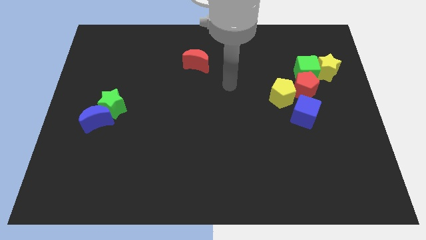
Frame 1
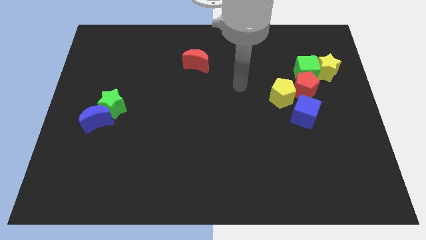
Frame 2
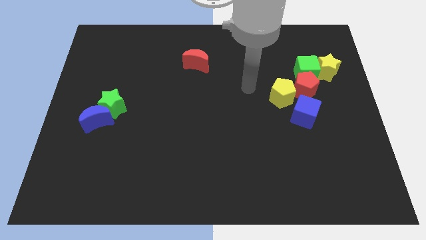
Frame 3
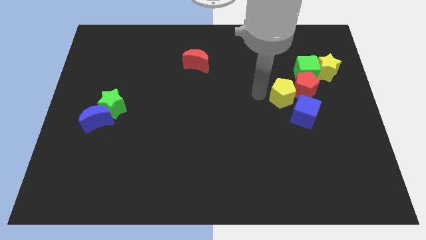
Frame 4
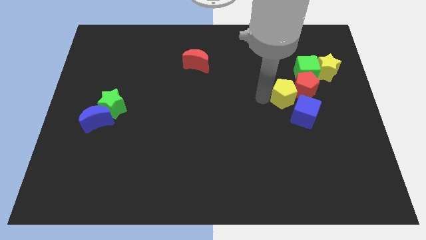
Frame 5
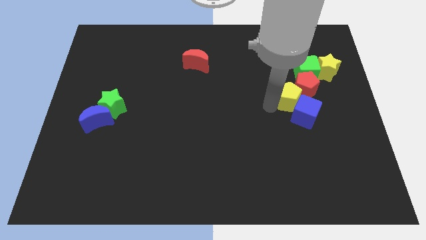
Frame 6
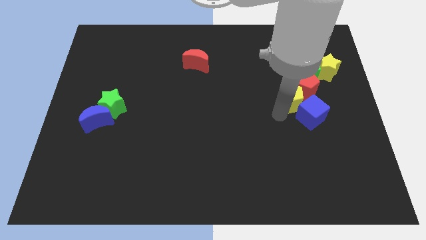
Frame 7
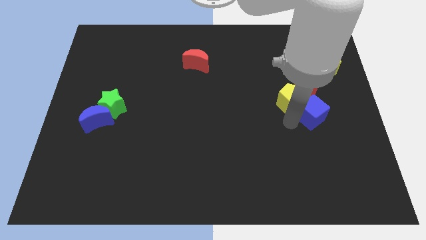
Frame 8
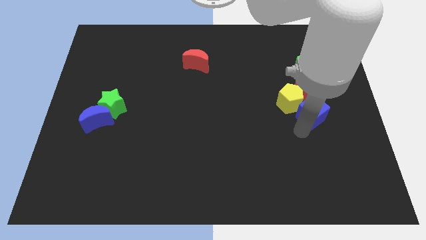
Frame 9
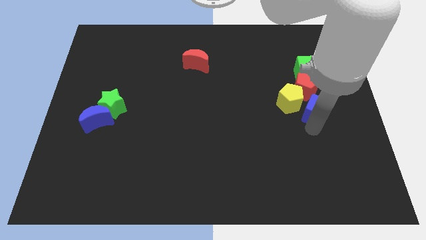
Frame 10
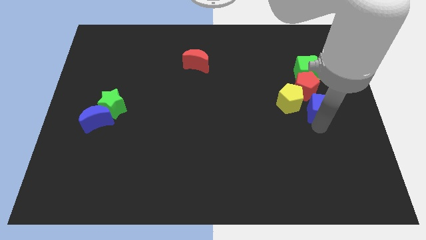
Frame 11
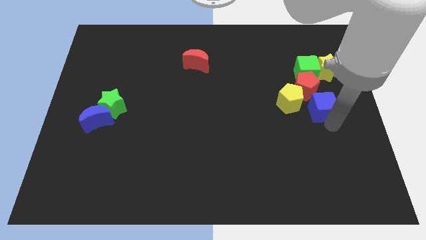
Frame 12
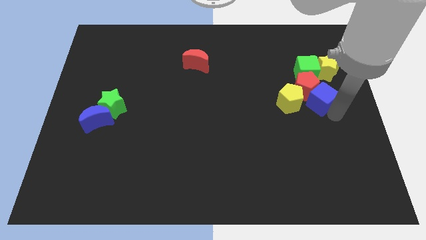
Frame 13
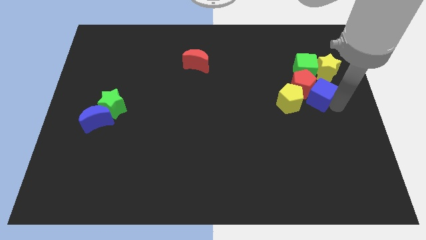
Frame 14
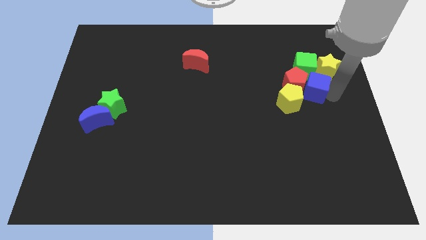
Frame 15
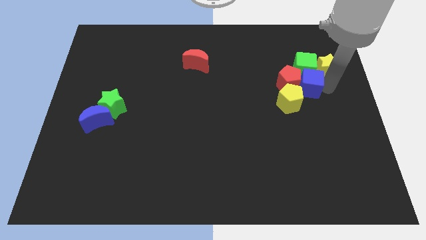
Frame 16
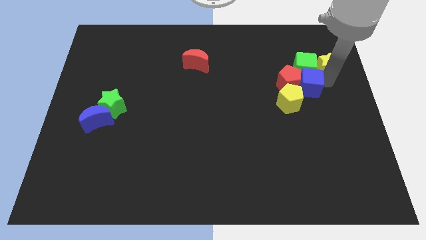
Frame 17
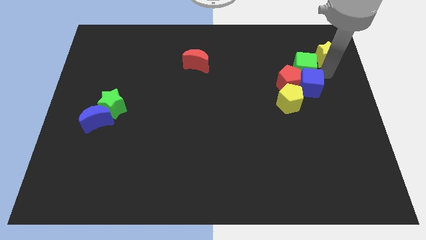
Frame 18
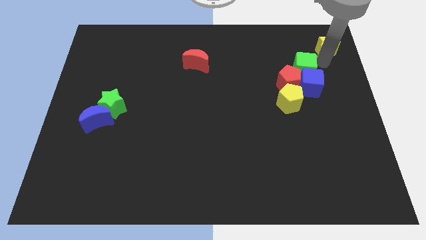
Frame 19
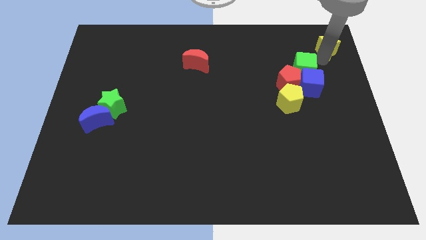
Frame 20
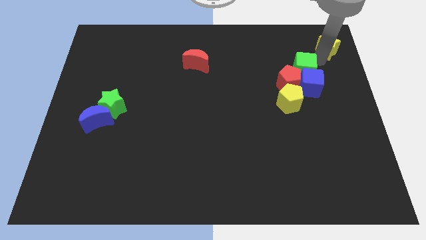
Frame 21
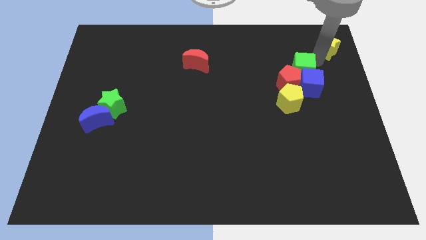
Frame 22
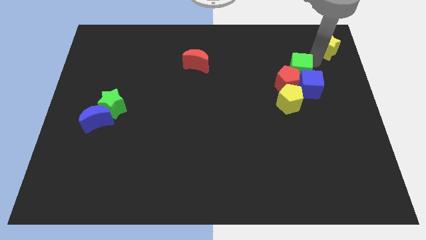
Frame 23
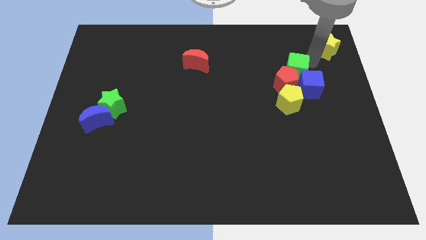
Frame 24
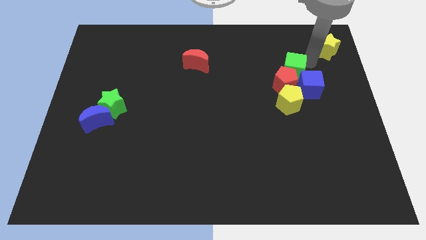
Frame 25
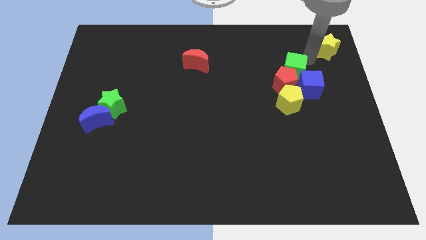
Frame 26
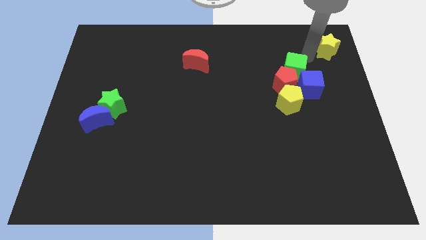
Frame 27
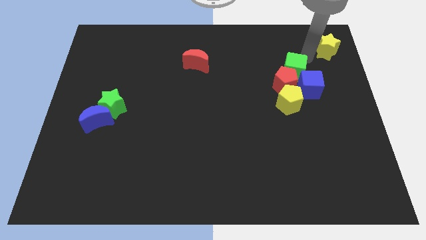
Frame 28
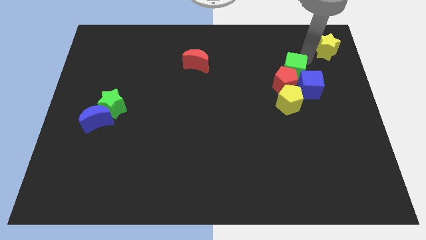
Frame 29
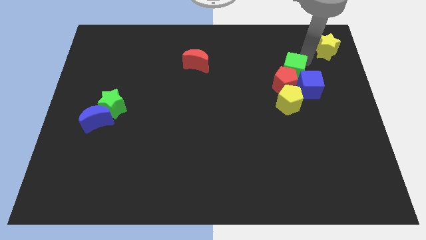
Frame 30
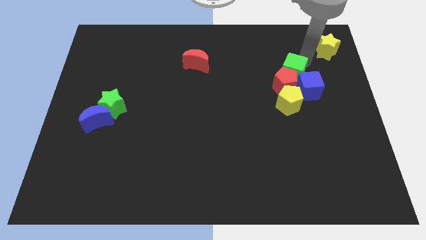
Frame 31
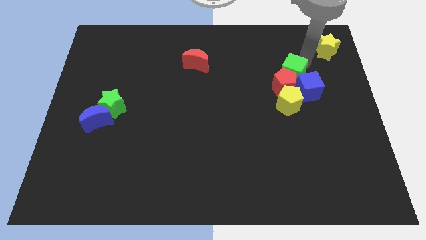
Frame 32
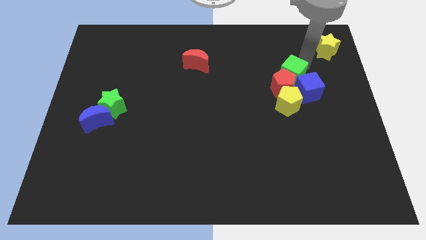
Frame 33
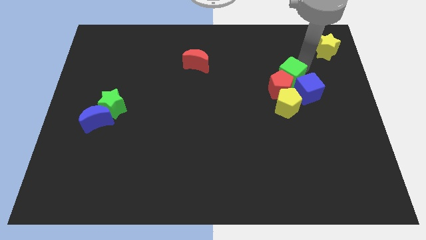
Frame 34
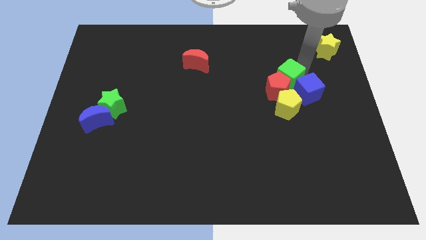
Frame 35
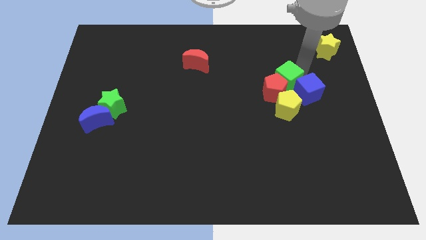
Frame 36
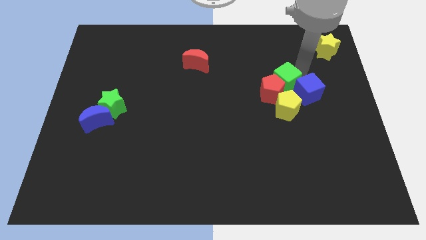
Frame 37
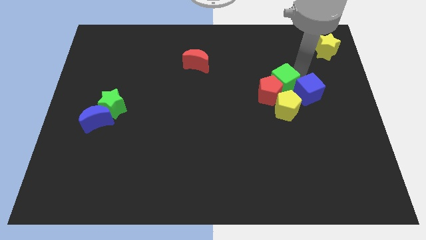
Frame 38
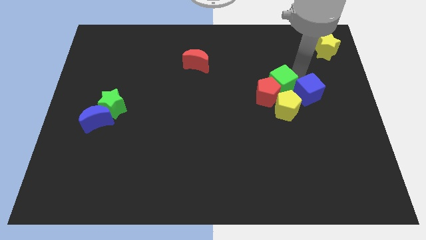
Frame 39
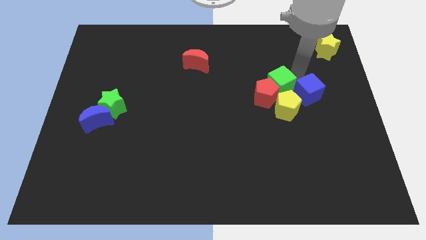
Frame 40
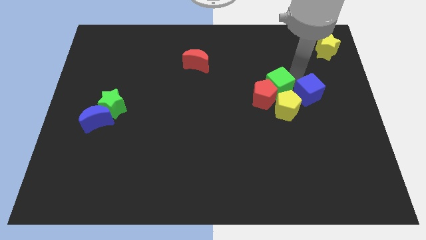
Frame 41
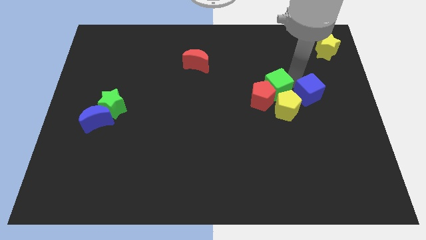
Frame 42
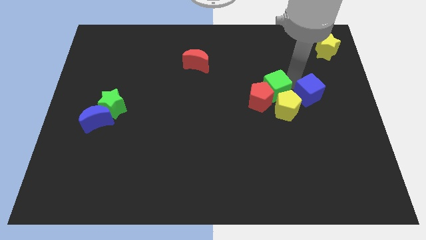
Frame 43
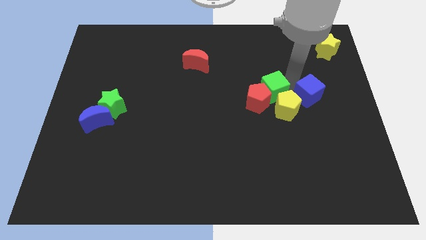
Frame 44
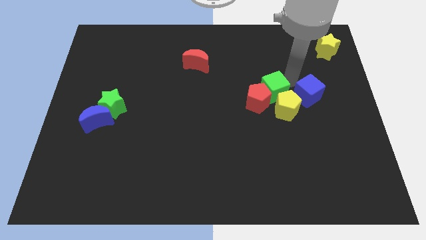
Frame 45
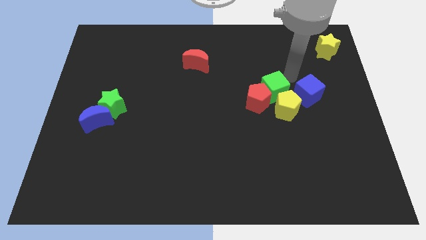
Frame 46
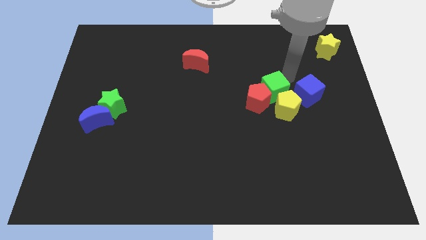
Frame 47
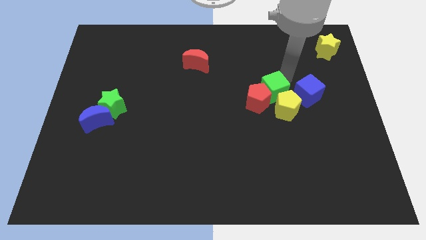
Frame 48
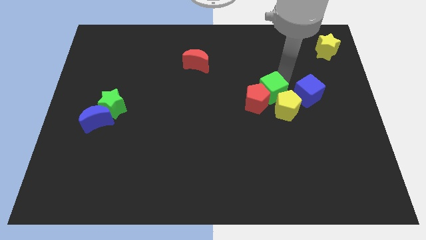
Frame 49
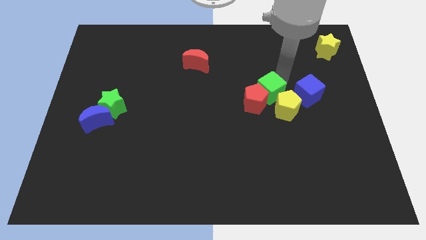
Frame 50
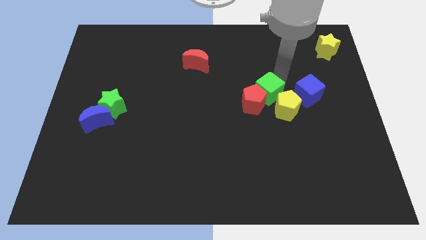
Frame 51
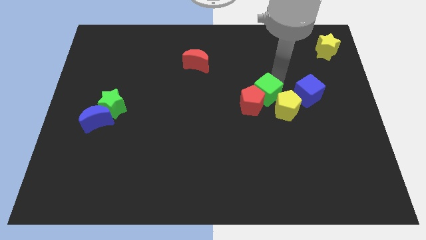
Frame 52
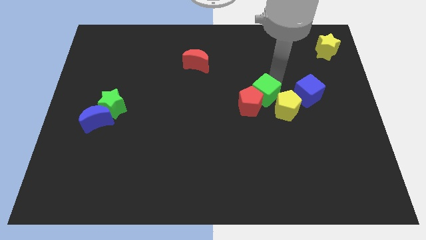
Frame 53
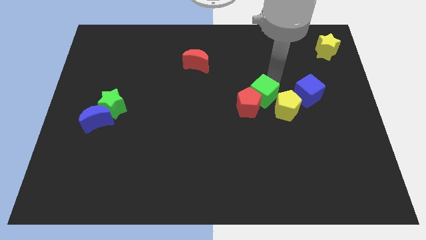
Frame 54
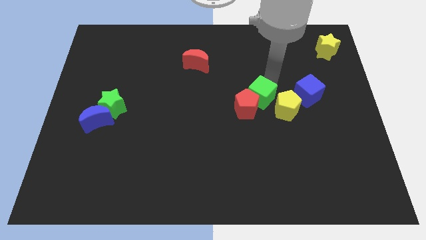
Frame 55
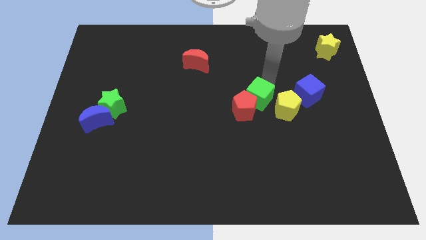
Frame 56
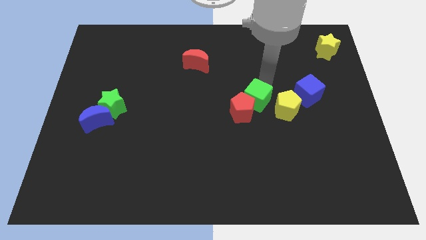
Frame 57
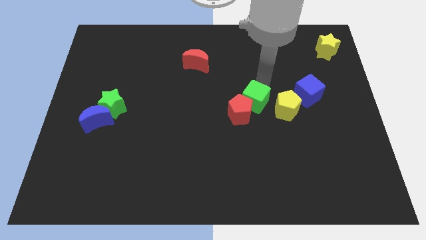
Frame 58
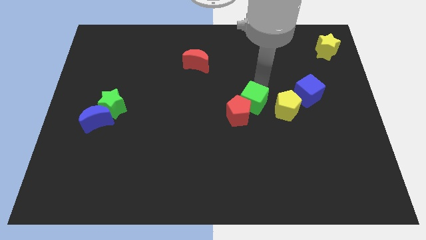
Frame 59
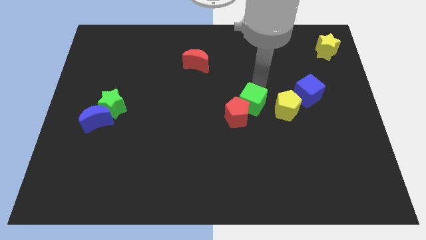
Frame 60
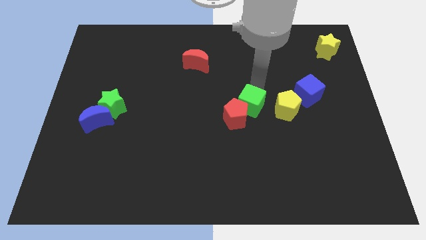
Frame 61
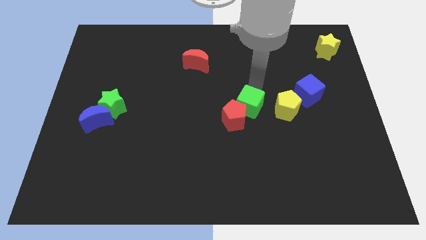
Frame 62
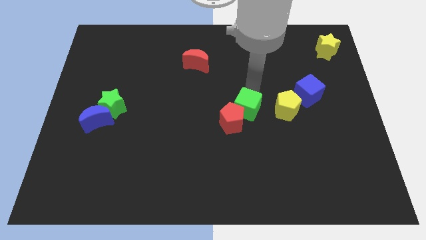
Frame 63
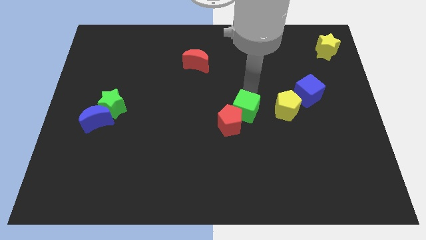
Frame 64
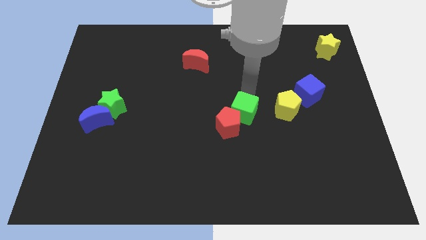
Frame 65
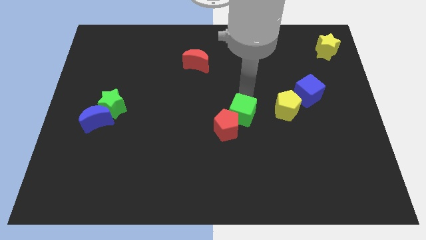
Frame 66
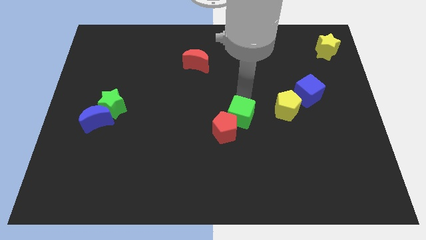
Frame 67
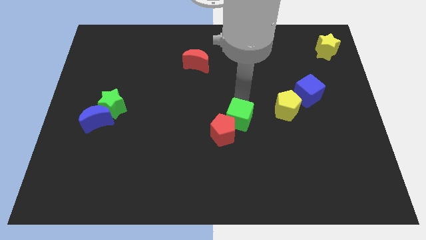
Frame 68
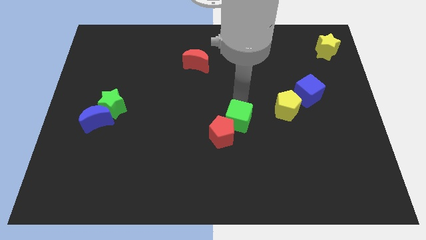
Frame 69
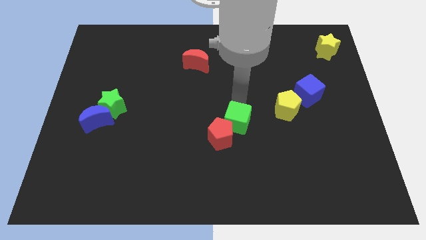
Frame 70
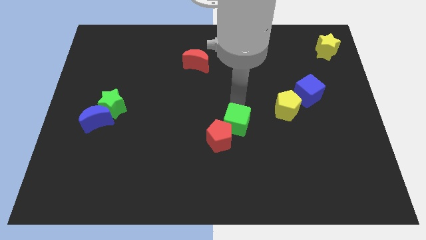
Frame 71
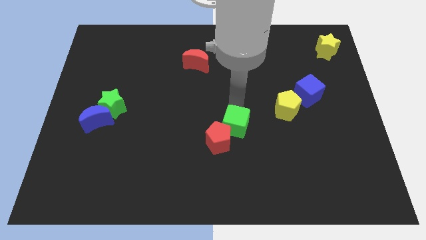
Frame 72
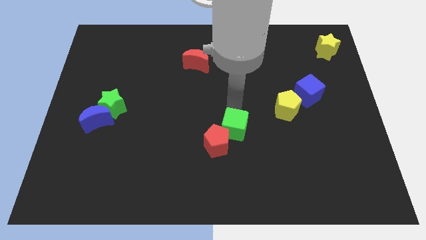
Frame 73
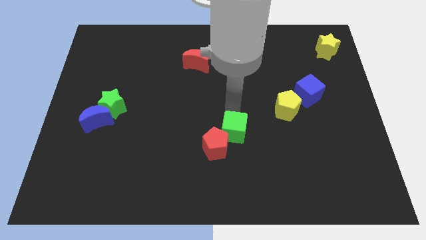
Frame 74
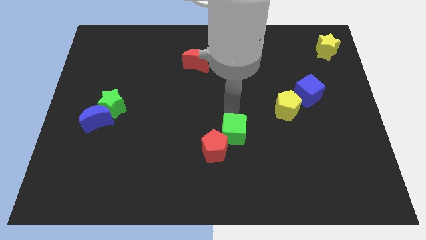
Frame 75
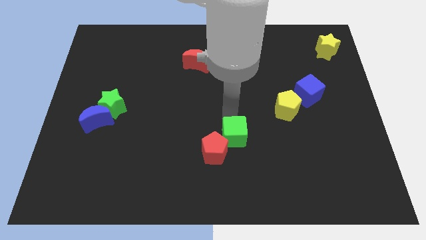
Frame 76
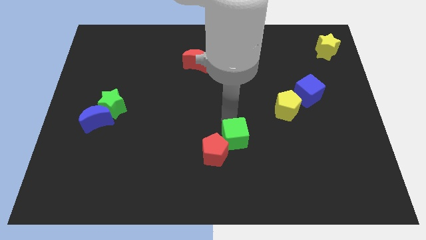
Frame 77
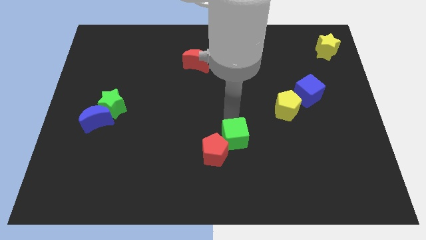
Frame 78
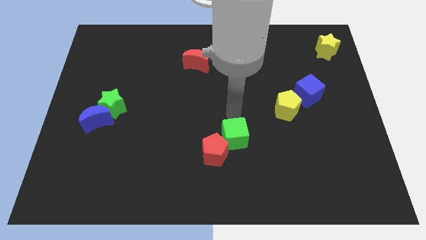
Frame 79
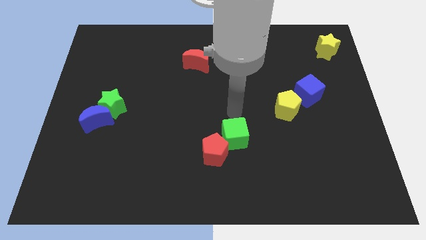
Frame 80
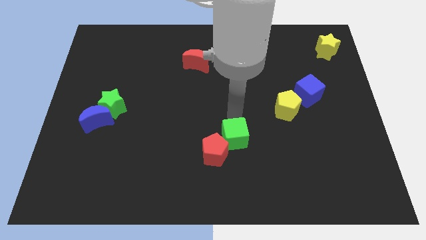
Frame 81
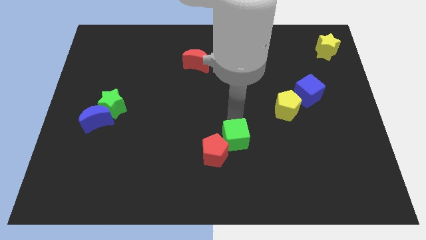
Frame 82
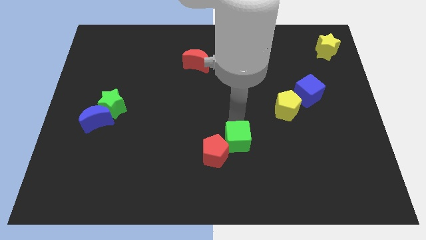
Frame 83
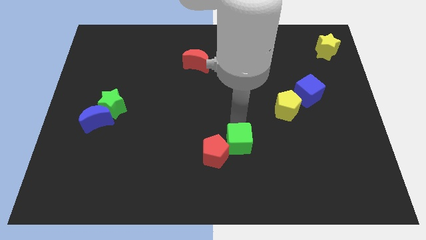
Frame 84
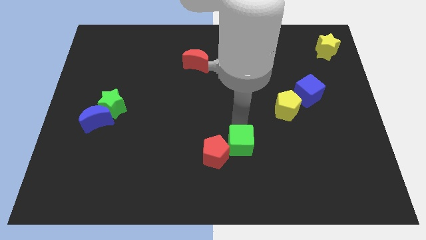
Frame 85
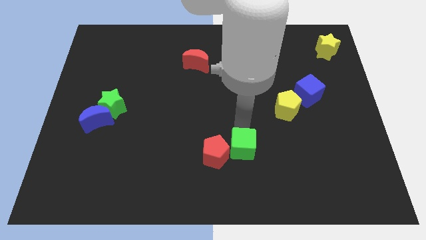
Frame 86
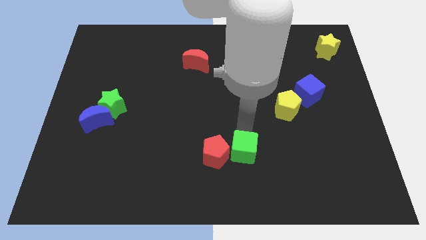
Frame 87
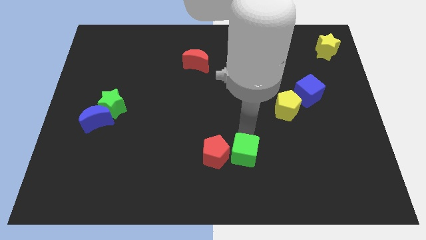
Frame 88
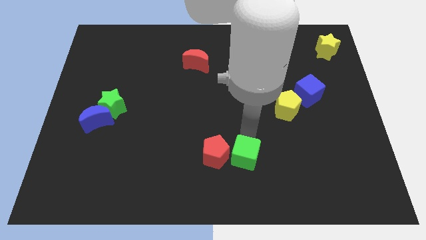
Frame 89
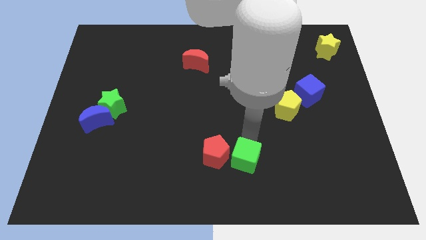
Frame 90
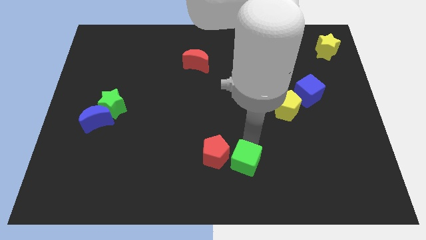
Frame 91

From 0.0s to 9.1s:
push the green cube to the bottom
